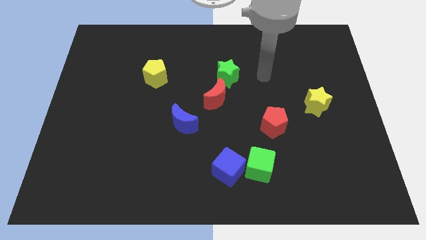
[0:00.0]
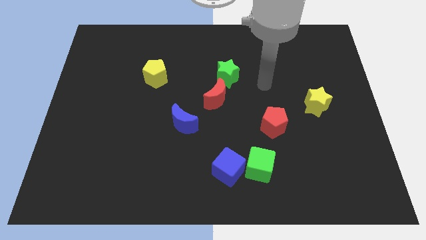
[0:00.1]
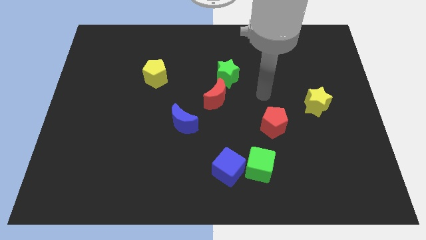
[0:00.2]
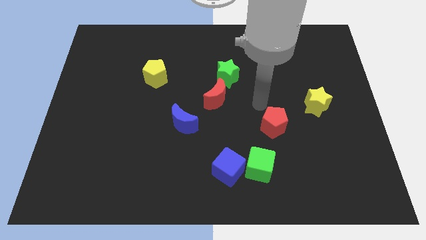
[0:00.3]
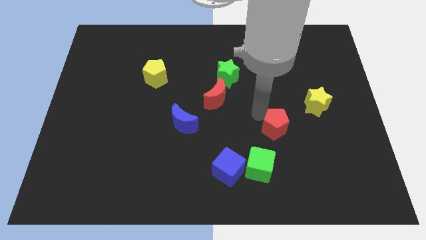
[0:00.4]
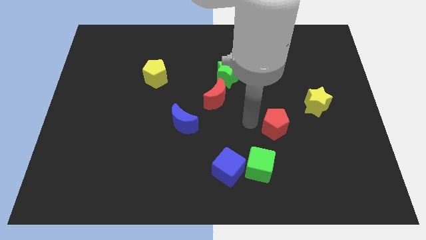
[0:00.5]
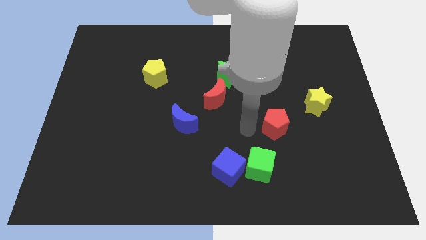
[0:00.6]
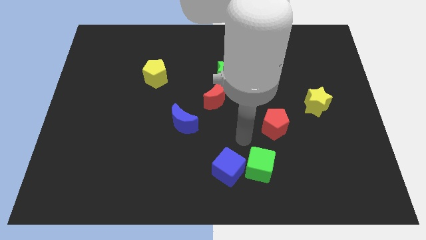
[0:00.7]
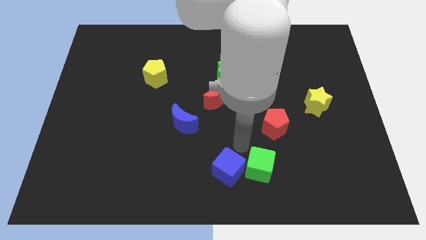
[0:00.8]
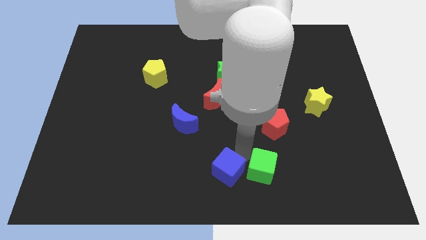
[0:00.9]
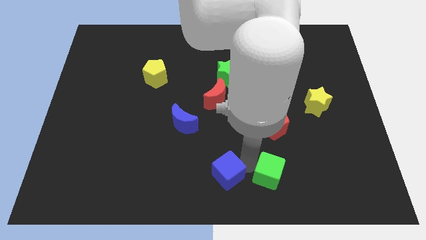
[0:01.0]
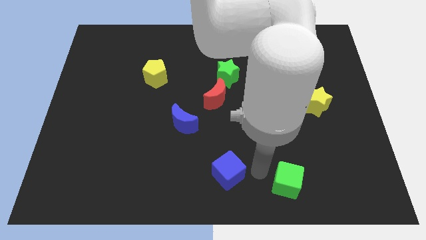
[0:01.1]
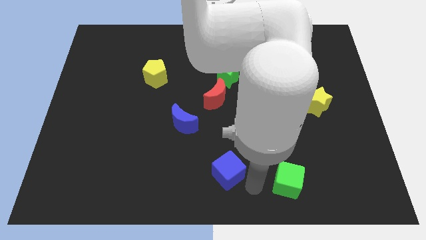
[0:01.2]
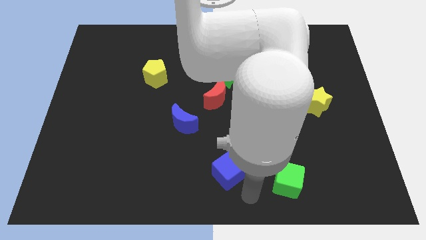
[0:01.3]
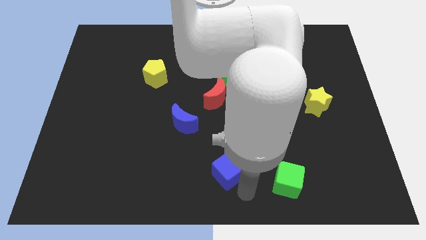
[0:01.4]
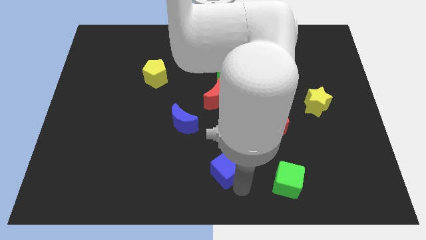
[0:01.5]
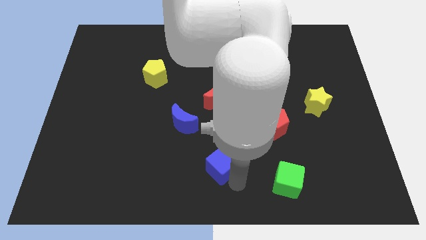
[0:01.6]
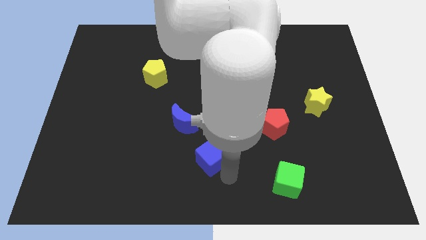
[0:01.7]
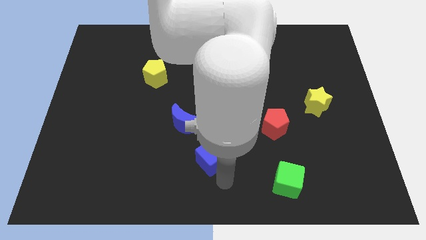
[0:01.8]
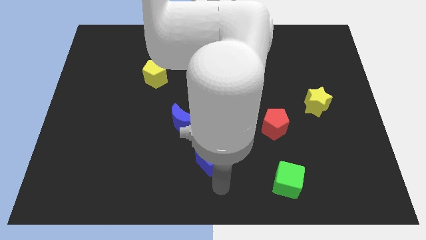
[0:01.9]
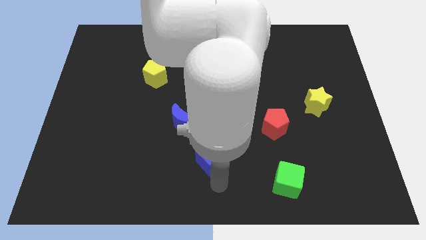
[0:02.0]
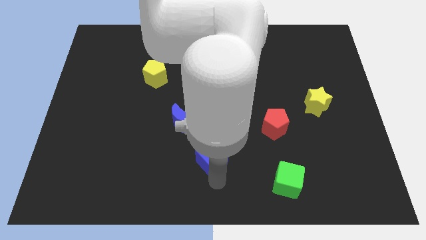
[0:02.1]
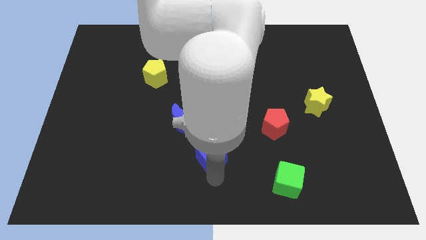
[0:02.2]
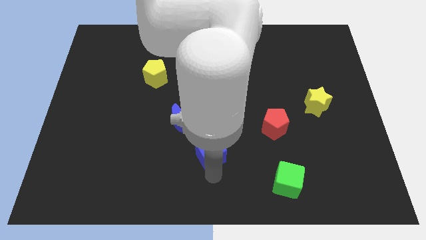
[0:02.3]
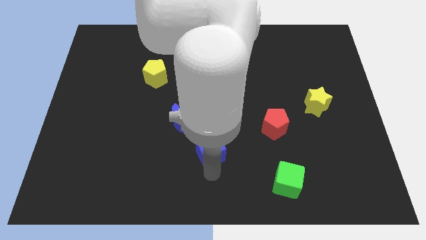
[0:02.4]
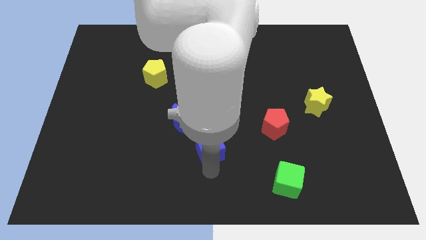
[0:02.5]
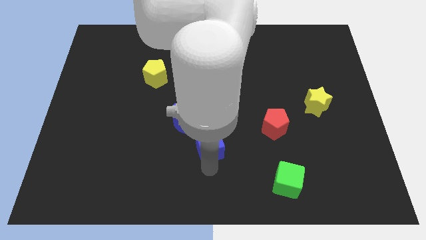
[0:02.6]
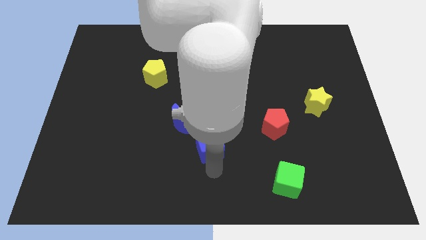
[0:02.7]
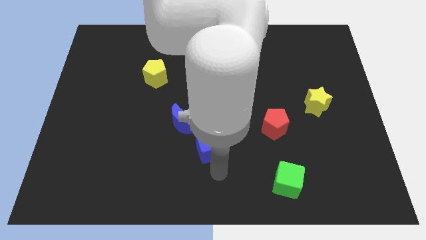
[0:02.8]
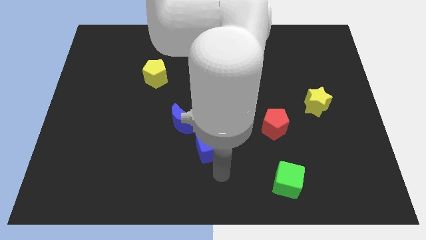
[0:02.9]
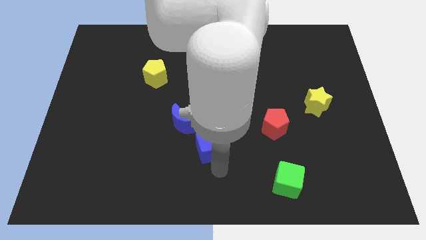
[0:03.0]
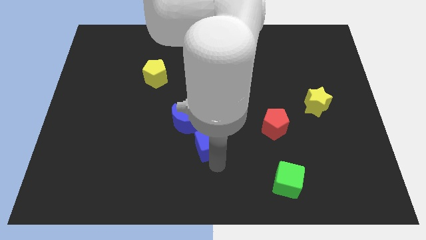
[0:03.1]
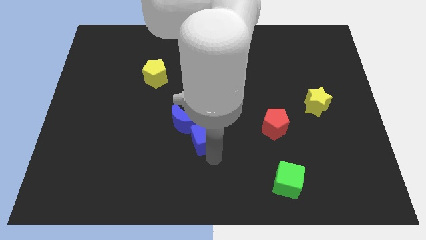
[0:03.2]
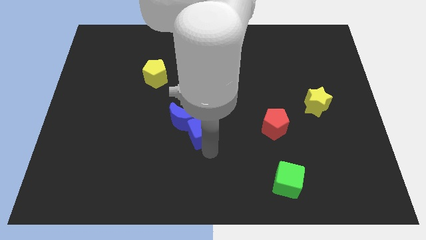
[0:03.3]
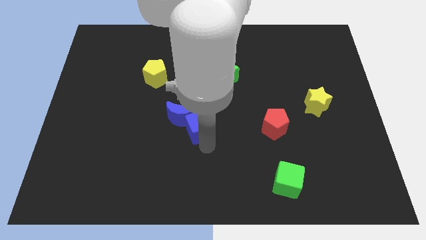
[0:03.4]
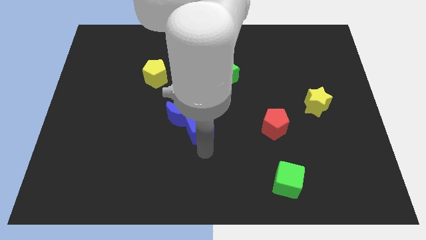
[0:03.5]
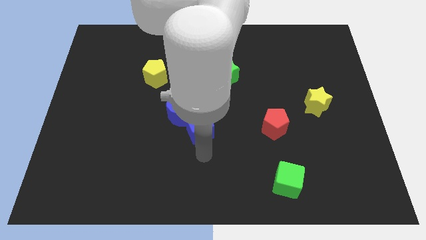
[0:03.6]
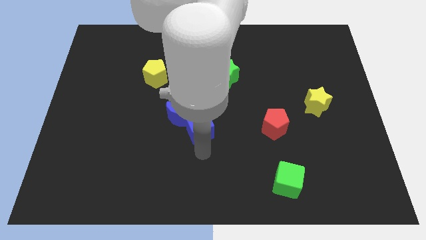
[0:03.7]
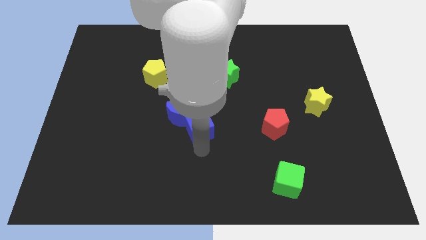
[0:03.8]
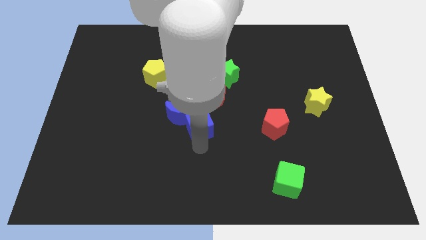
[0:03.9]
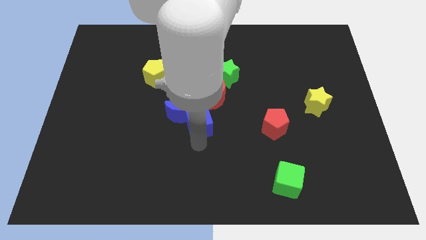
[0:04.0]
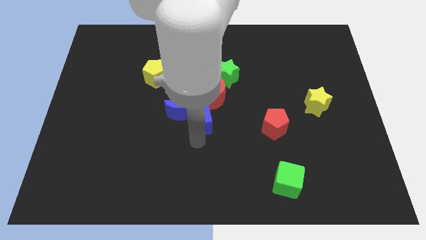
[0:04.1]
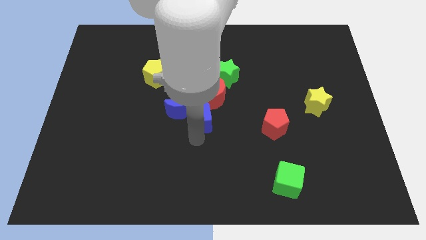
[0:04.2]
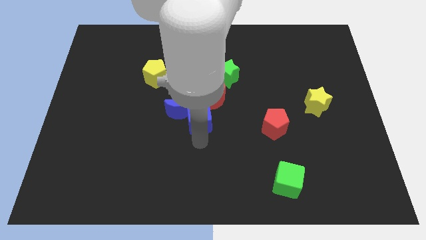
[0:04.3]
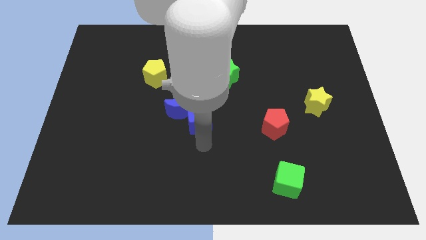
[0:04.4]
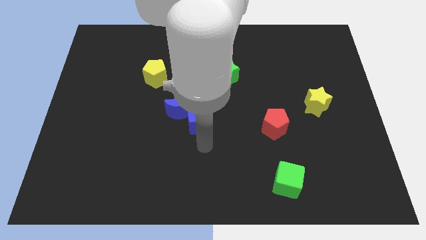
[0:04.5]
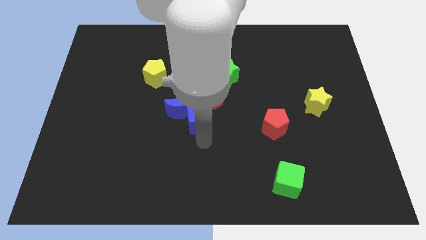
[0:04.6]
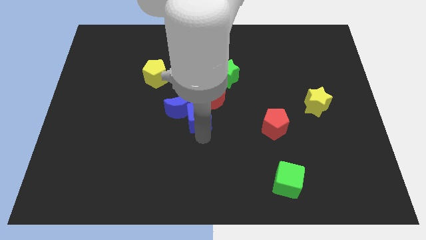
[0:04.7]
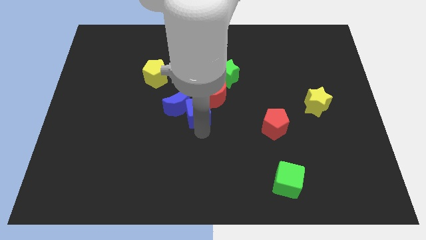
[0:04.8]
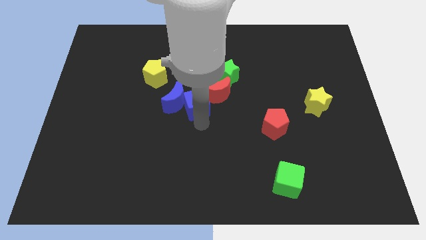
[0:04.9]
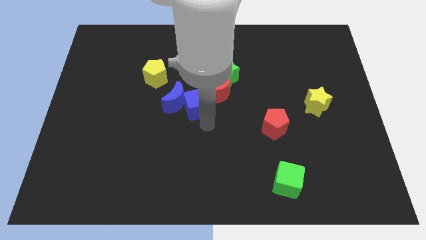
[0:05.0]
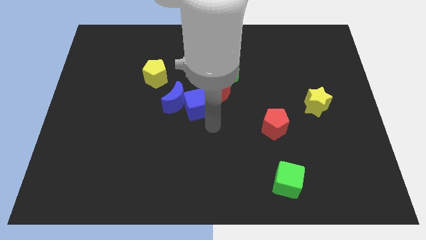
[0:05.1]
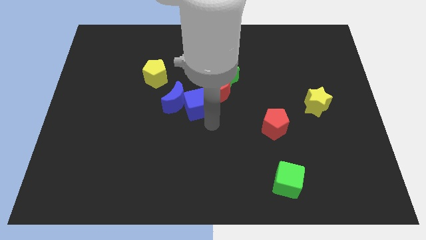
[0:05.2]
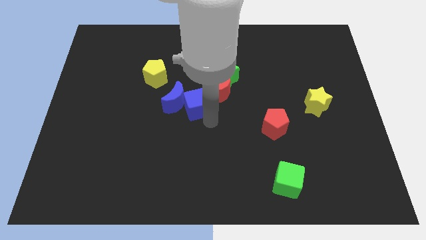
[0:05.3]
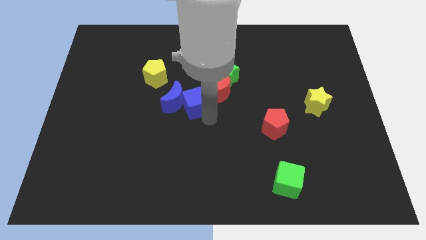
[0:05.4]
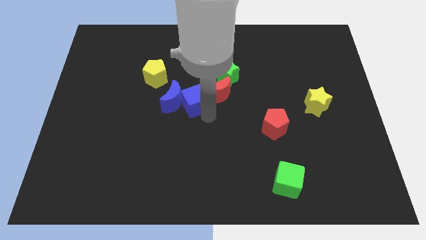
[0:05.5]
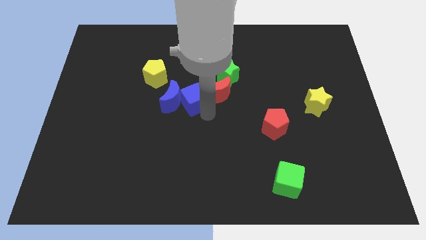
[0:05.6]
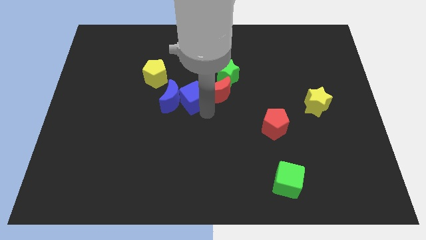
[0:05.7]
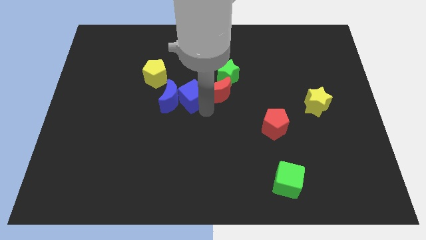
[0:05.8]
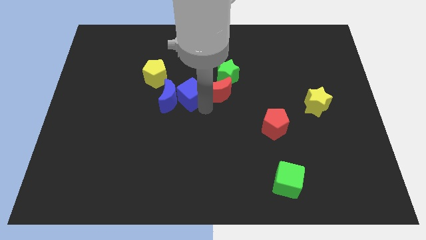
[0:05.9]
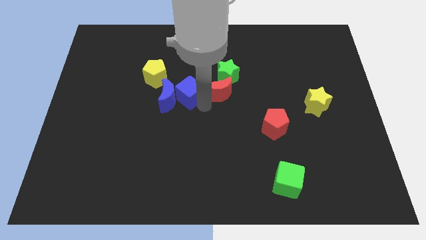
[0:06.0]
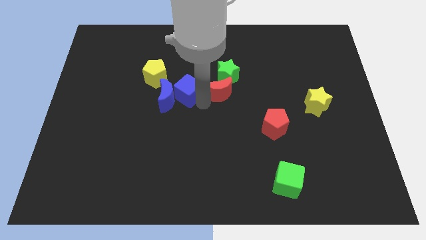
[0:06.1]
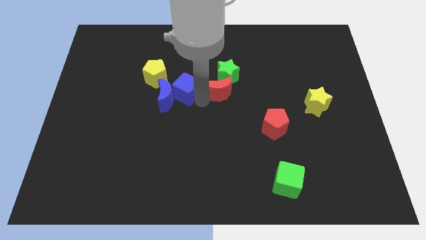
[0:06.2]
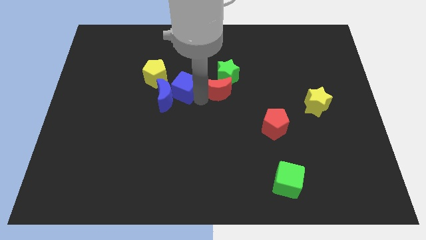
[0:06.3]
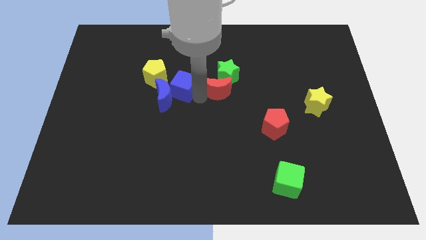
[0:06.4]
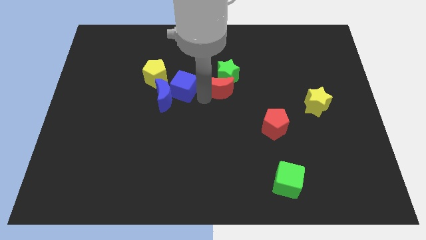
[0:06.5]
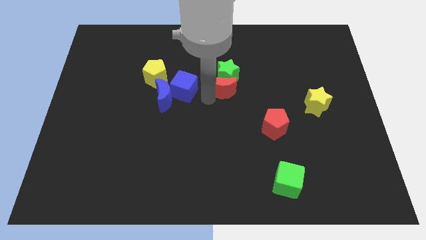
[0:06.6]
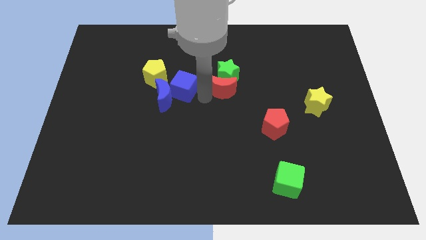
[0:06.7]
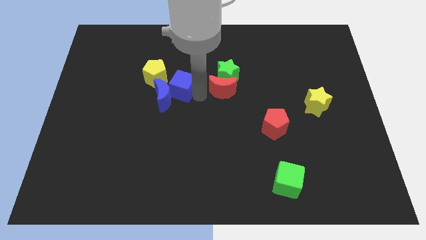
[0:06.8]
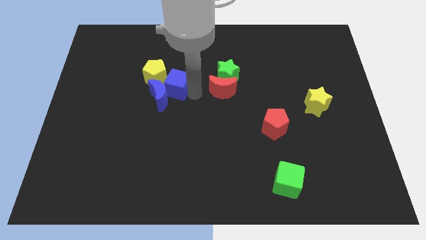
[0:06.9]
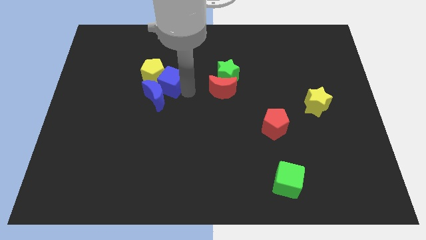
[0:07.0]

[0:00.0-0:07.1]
put the blue cube next to the yellow pentagon

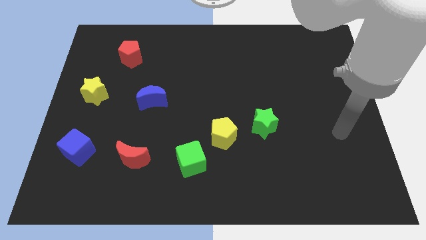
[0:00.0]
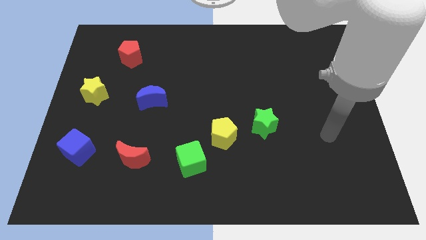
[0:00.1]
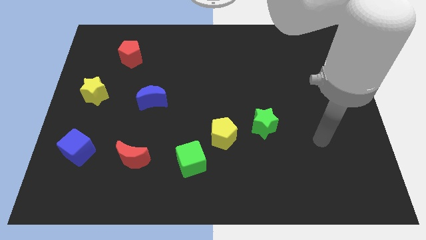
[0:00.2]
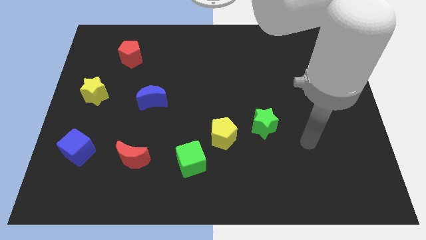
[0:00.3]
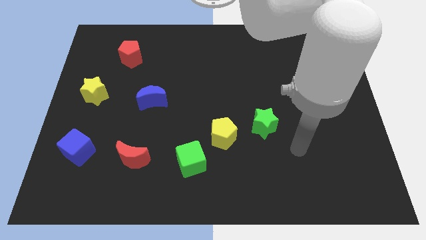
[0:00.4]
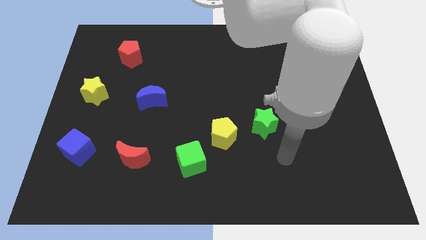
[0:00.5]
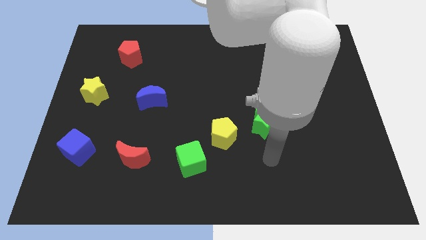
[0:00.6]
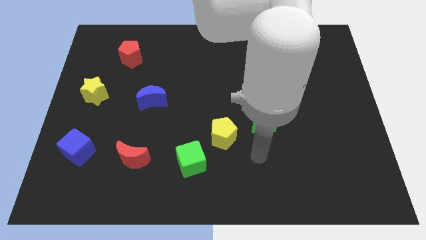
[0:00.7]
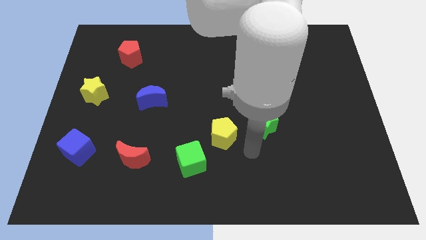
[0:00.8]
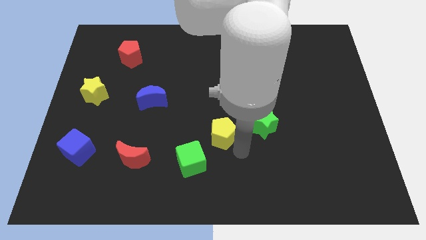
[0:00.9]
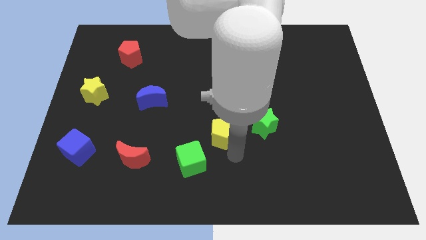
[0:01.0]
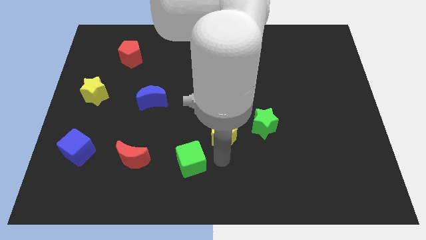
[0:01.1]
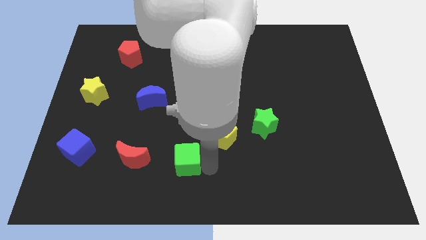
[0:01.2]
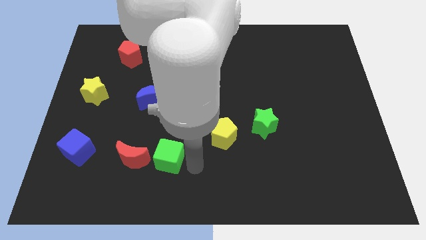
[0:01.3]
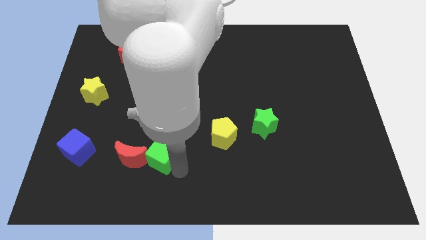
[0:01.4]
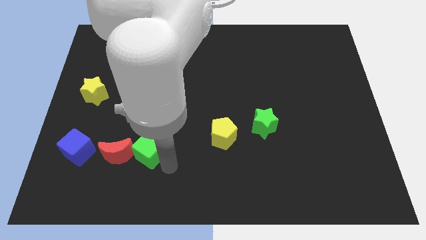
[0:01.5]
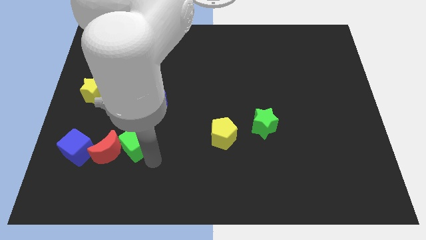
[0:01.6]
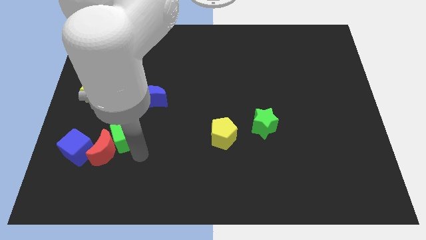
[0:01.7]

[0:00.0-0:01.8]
push the red moon towards the blue cube
